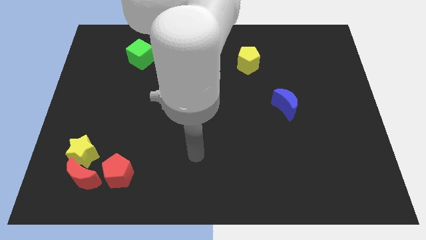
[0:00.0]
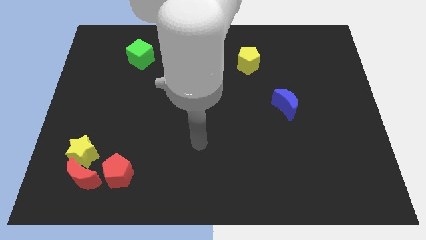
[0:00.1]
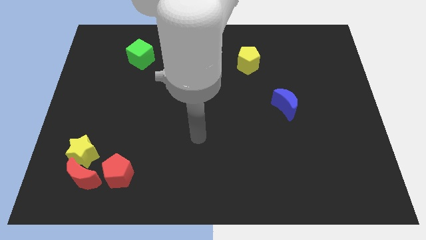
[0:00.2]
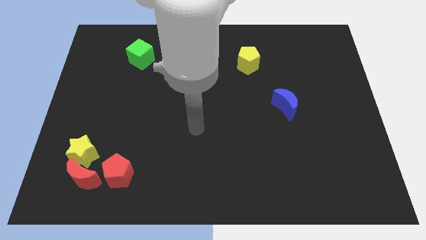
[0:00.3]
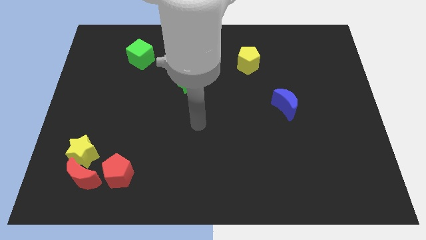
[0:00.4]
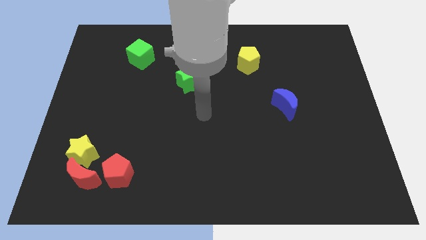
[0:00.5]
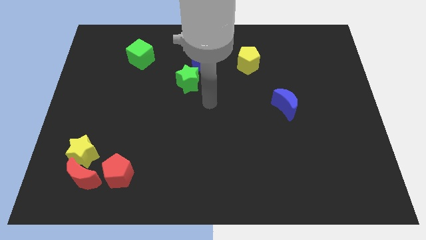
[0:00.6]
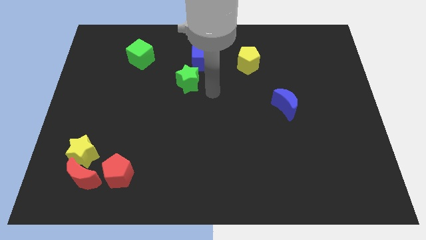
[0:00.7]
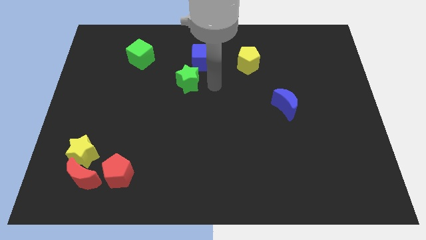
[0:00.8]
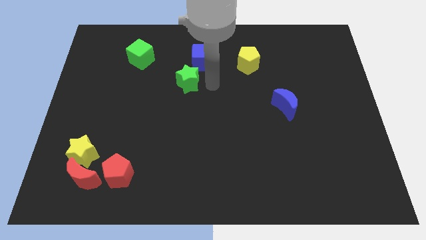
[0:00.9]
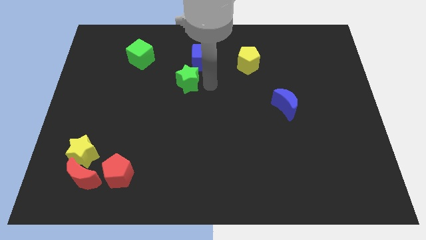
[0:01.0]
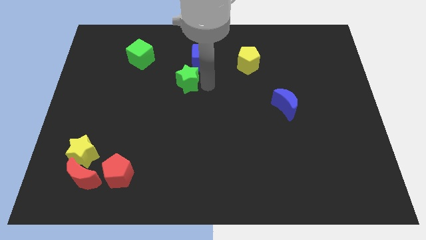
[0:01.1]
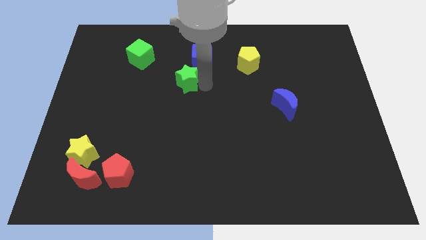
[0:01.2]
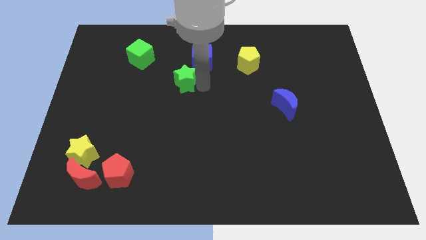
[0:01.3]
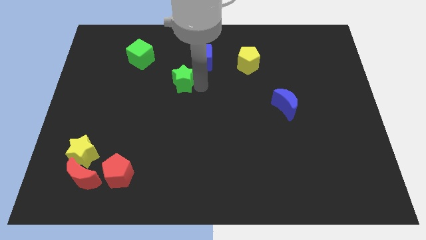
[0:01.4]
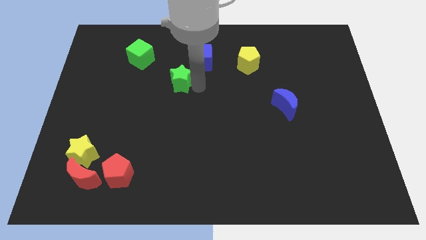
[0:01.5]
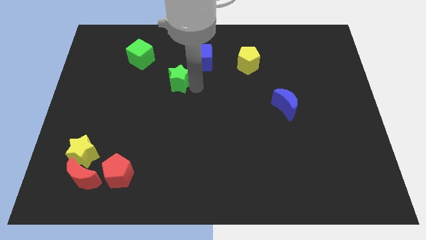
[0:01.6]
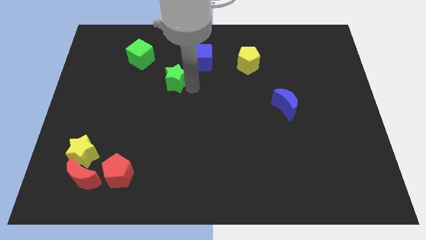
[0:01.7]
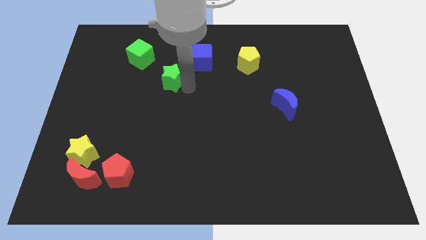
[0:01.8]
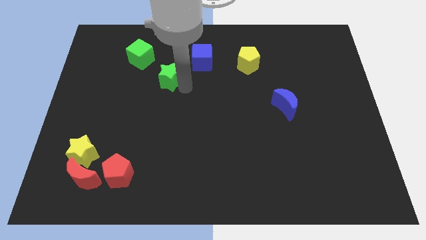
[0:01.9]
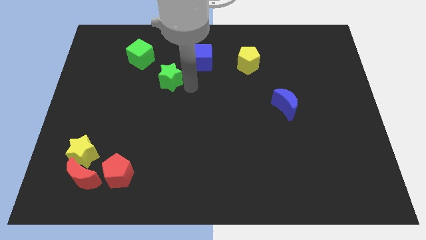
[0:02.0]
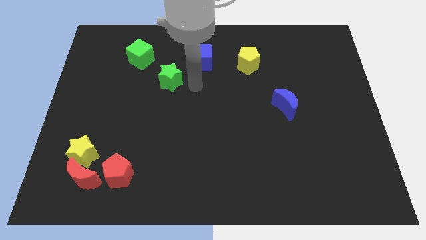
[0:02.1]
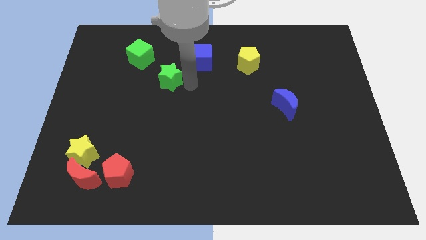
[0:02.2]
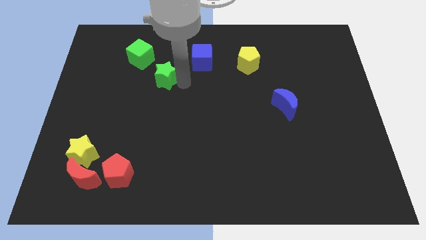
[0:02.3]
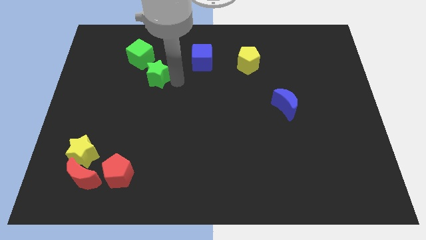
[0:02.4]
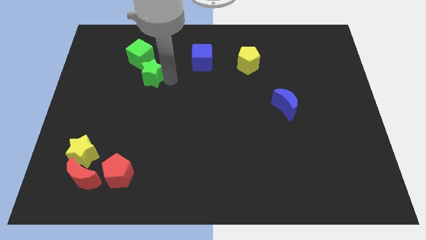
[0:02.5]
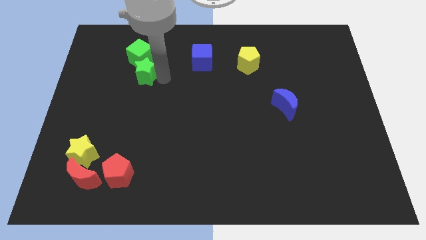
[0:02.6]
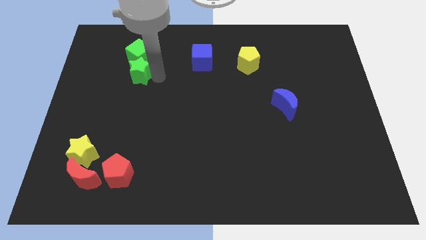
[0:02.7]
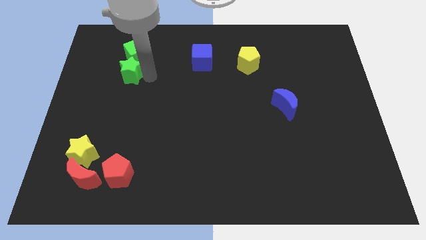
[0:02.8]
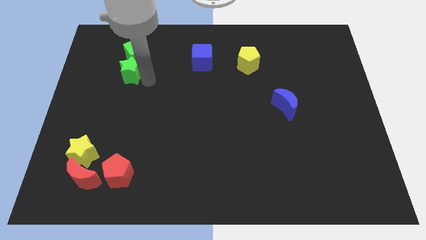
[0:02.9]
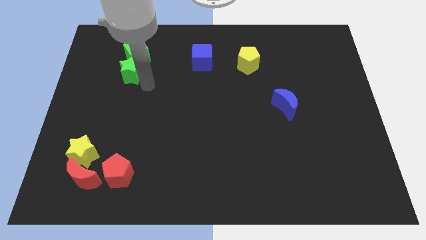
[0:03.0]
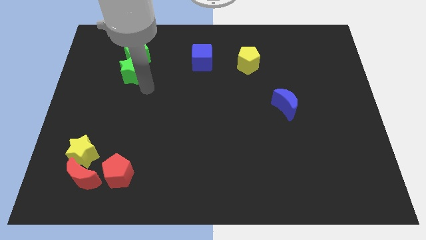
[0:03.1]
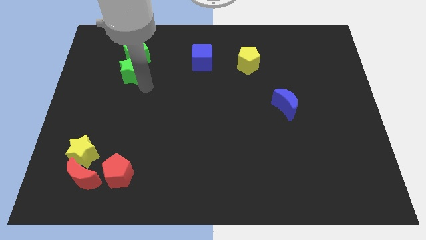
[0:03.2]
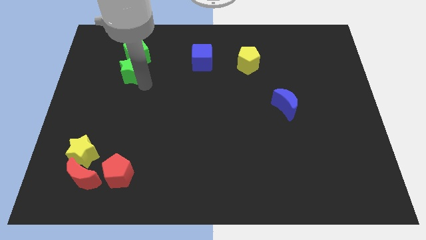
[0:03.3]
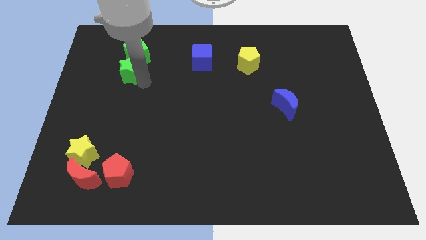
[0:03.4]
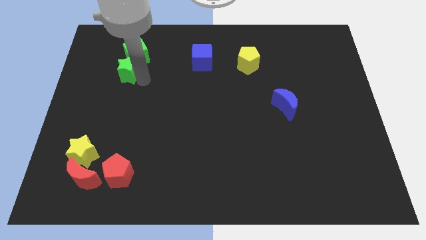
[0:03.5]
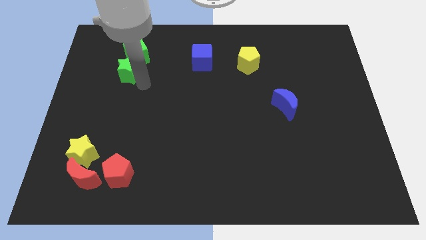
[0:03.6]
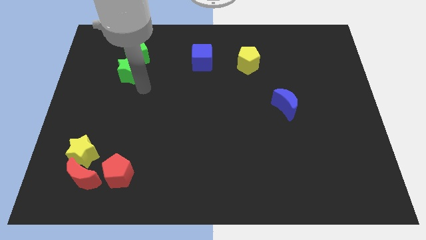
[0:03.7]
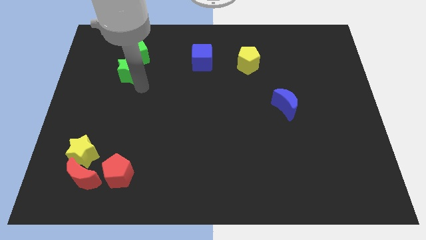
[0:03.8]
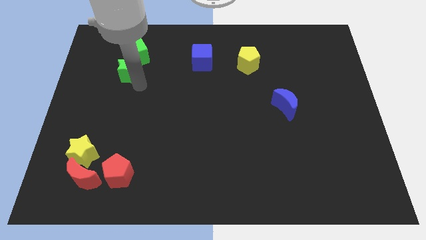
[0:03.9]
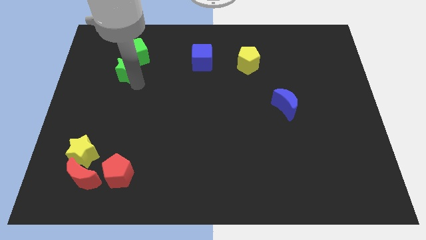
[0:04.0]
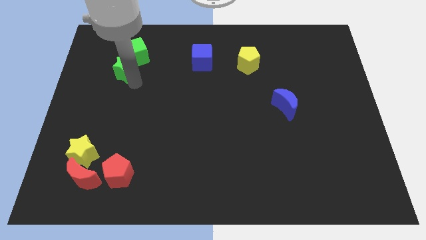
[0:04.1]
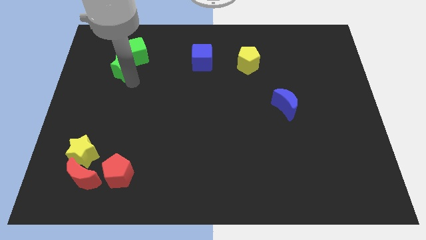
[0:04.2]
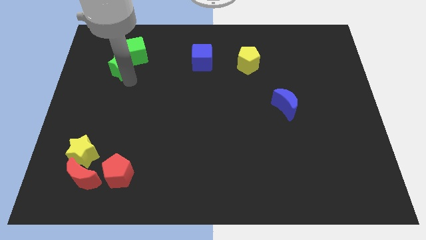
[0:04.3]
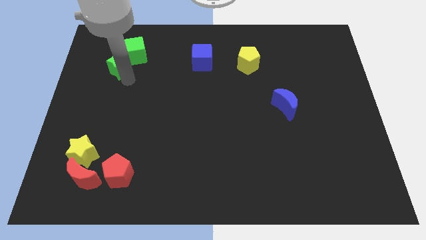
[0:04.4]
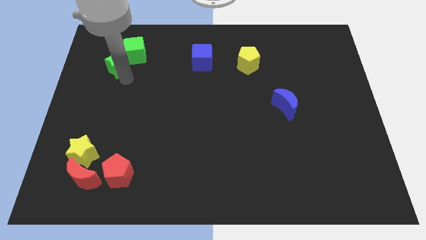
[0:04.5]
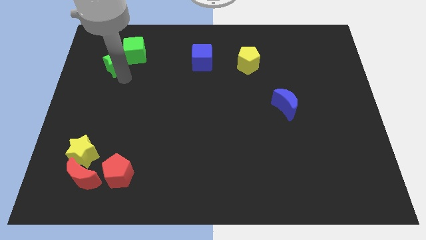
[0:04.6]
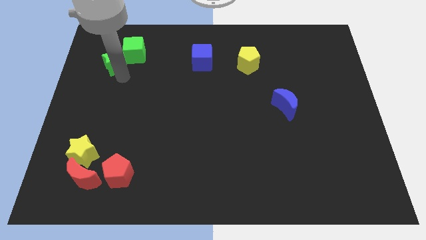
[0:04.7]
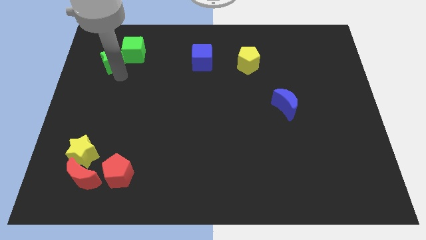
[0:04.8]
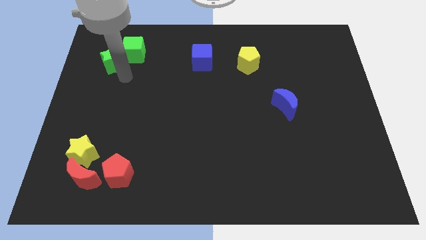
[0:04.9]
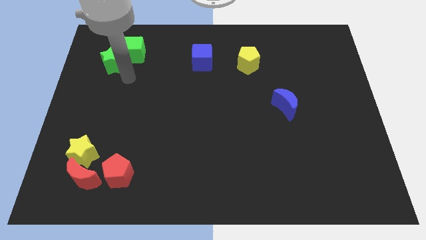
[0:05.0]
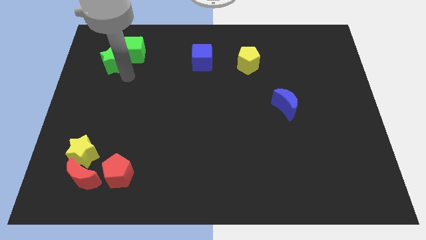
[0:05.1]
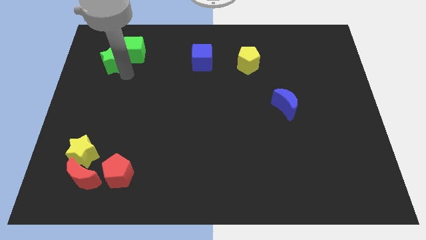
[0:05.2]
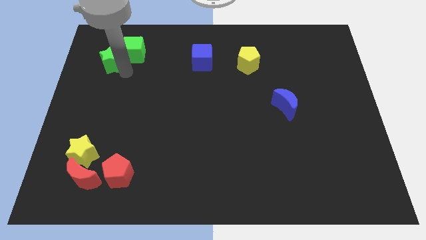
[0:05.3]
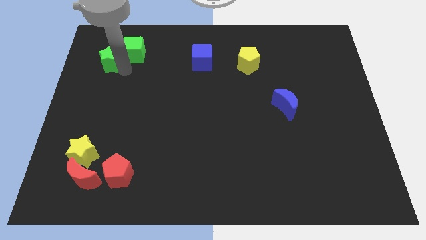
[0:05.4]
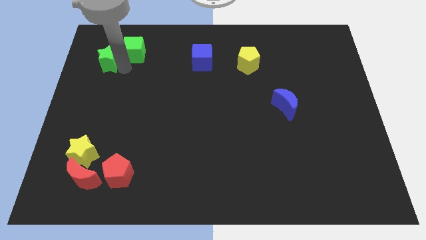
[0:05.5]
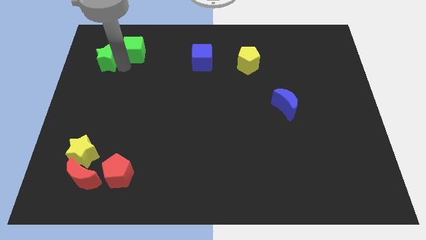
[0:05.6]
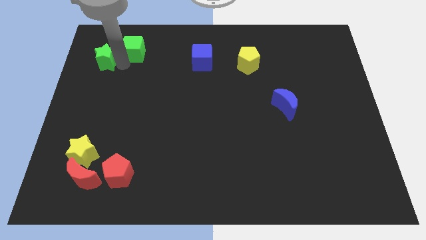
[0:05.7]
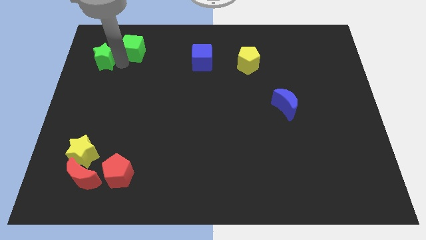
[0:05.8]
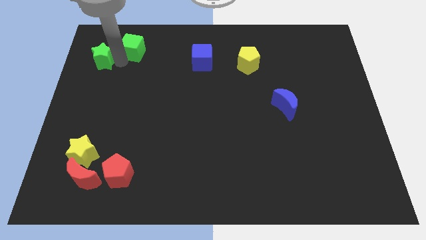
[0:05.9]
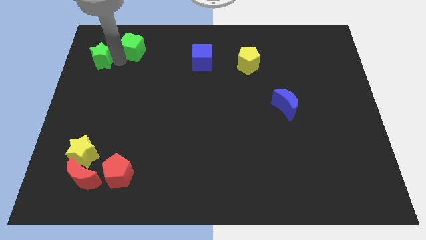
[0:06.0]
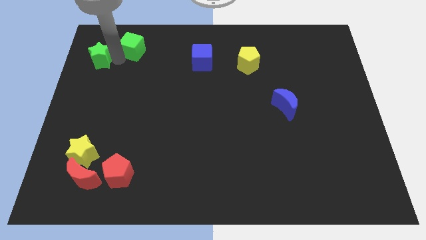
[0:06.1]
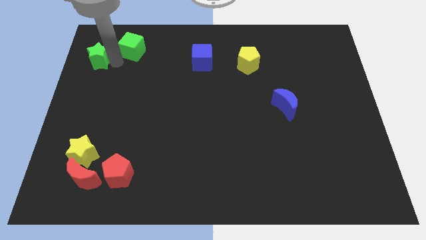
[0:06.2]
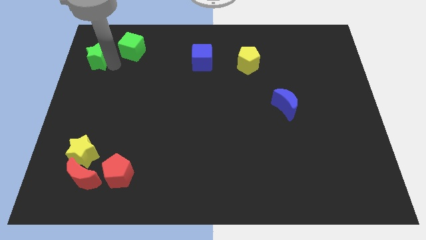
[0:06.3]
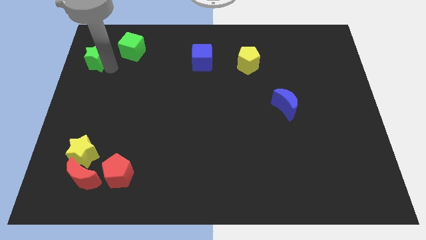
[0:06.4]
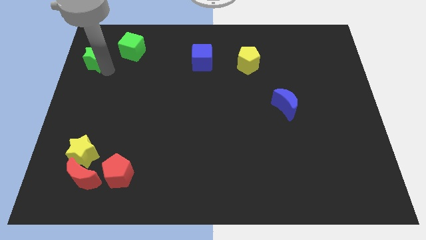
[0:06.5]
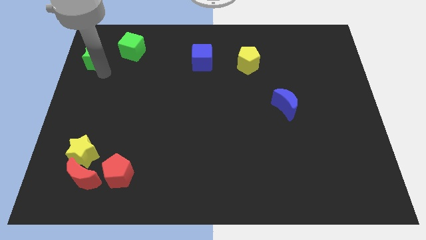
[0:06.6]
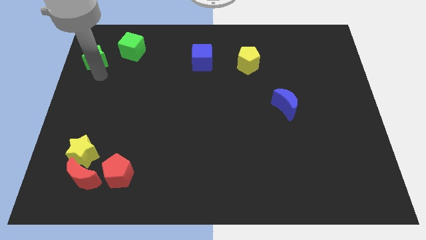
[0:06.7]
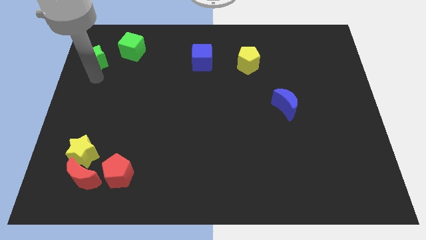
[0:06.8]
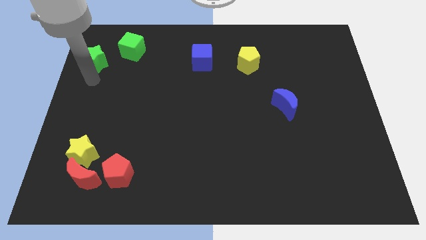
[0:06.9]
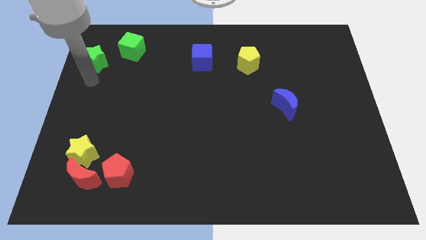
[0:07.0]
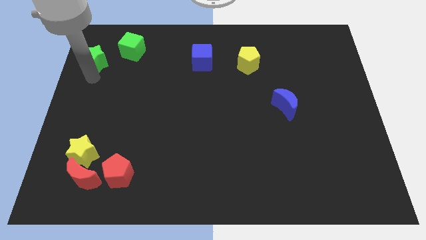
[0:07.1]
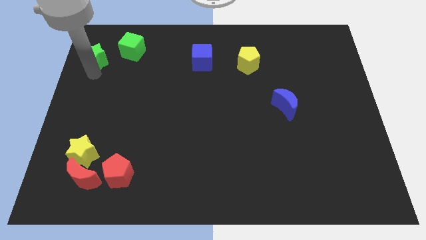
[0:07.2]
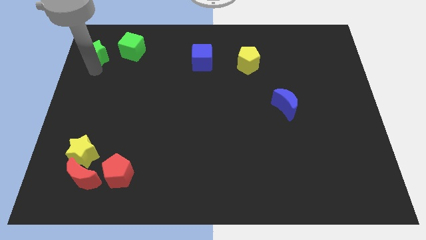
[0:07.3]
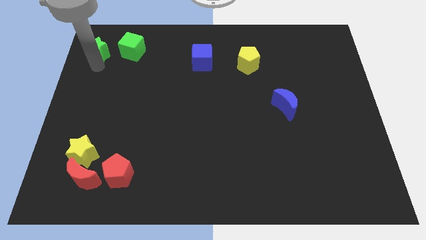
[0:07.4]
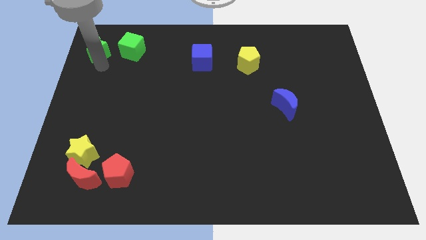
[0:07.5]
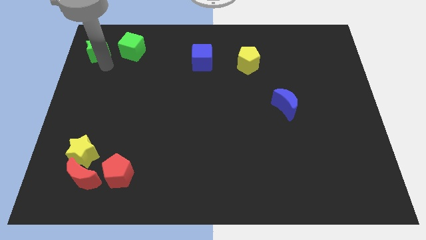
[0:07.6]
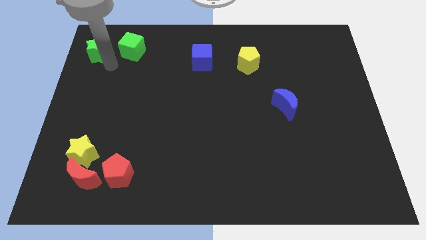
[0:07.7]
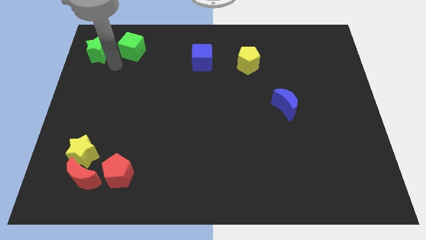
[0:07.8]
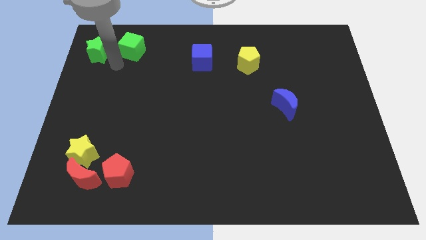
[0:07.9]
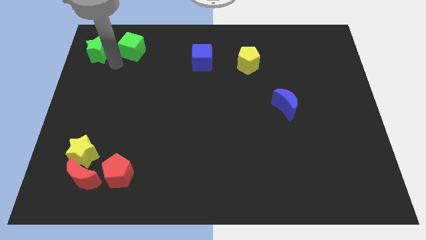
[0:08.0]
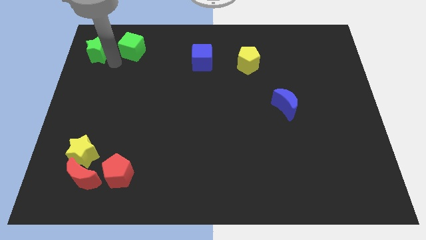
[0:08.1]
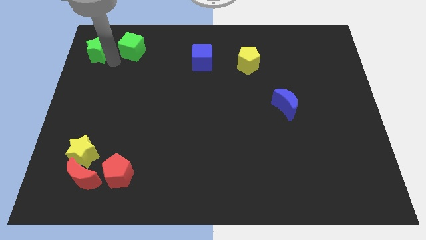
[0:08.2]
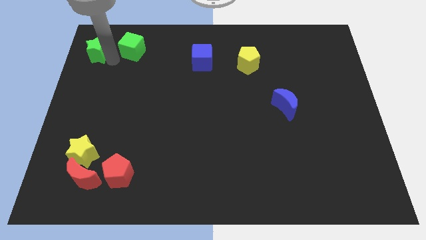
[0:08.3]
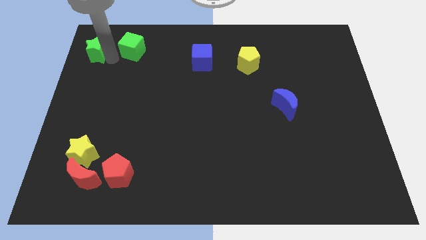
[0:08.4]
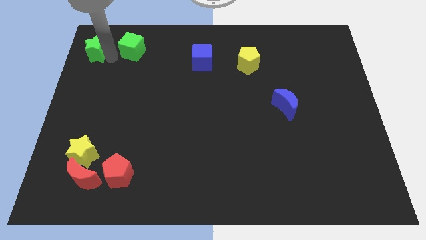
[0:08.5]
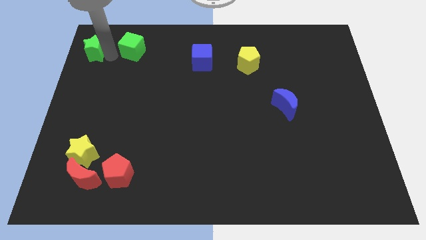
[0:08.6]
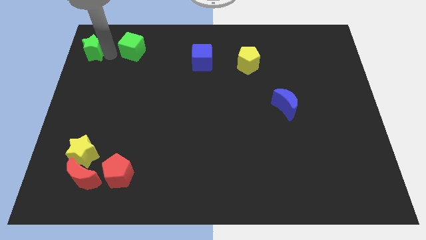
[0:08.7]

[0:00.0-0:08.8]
push the green star to the top left of the board
